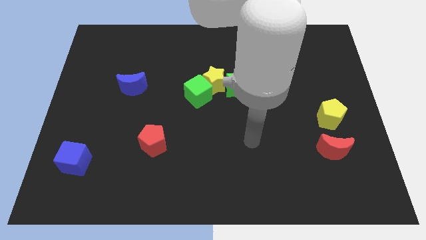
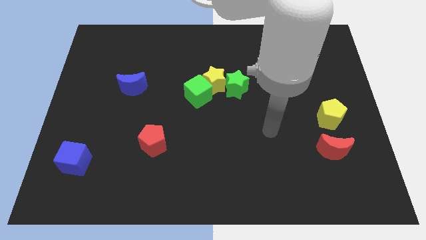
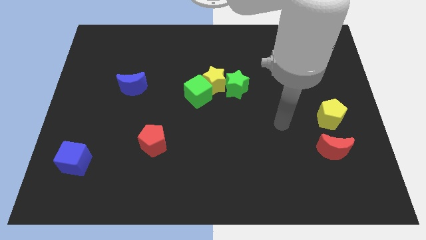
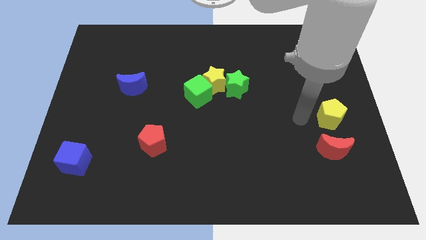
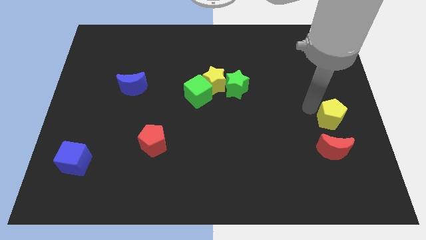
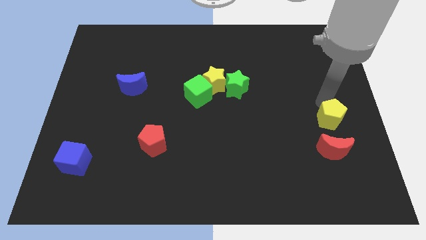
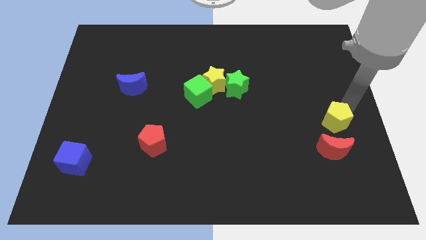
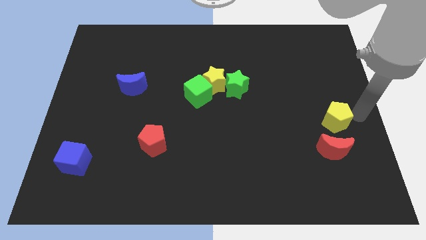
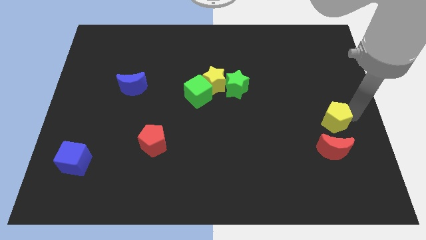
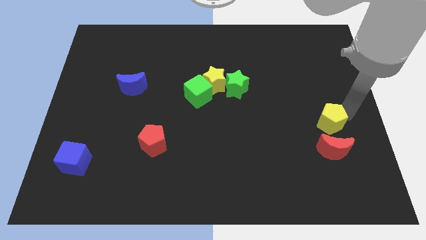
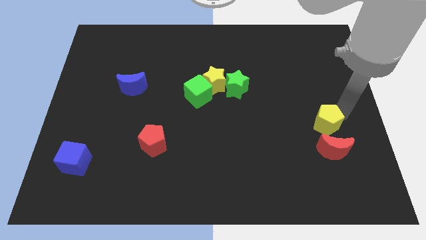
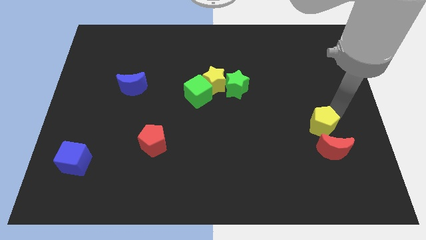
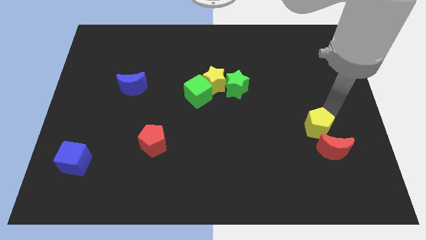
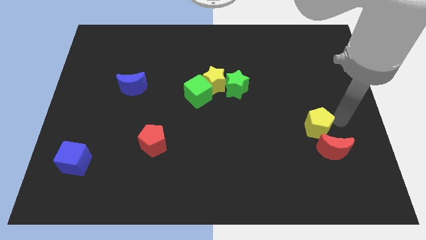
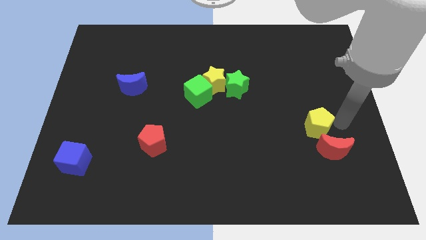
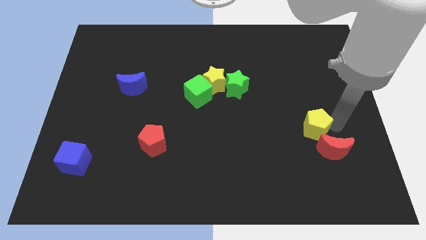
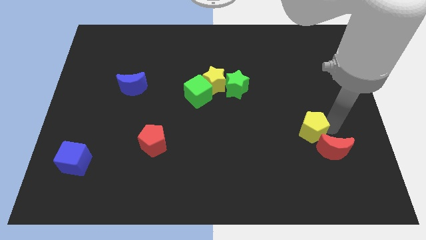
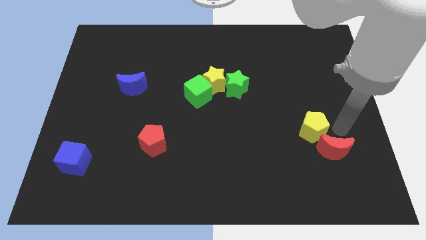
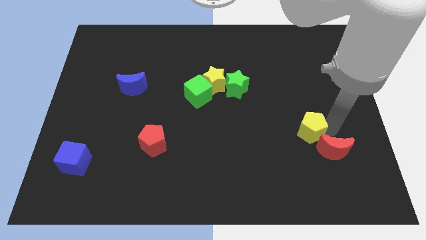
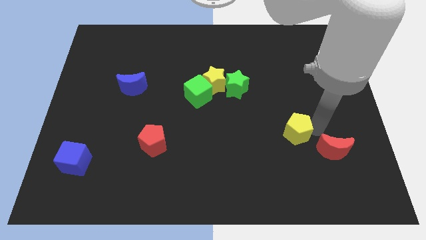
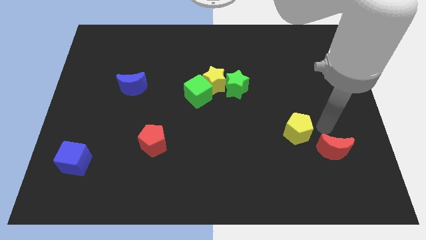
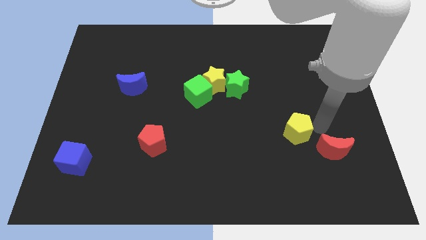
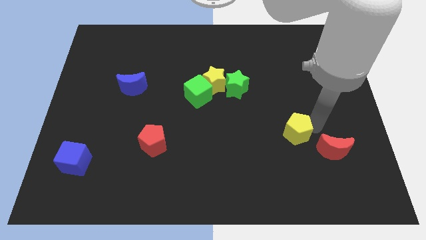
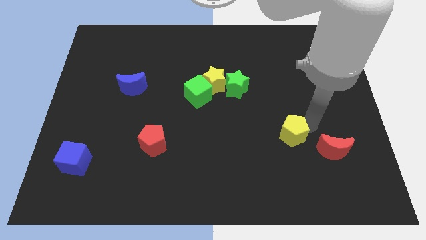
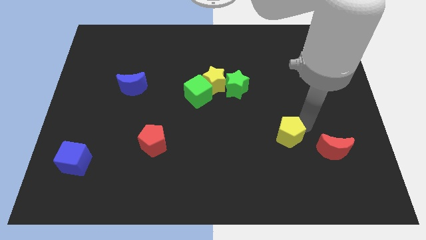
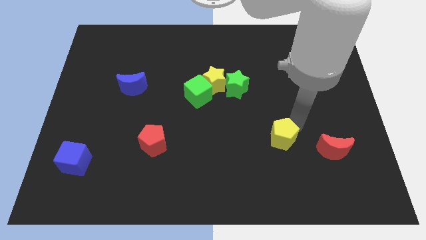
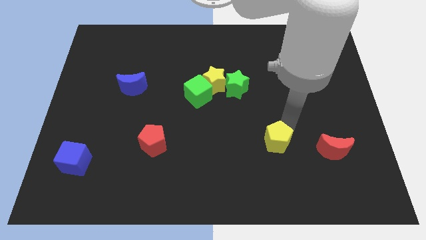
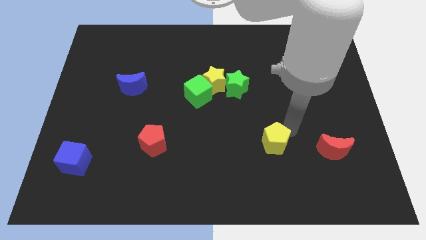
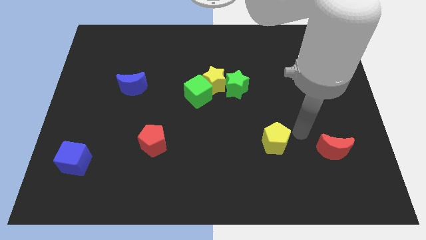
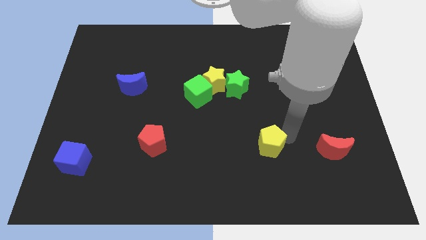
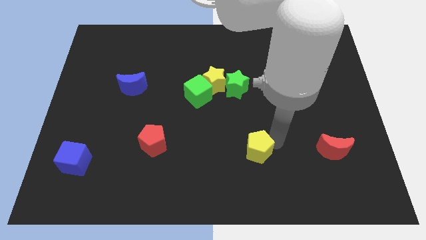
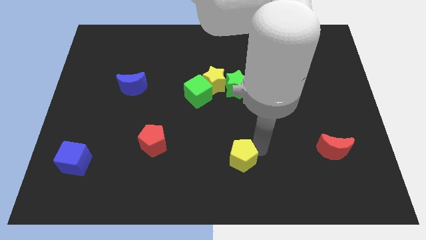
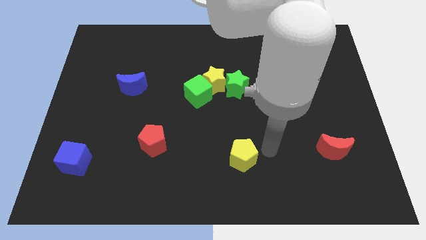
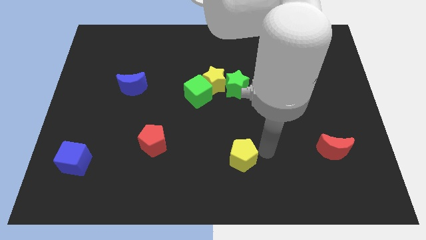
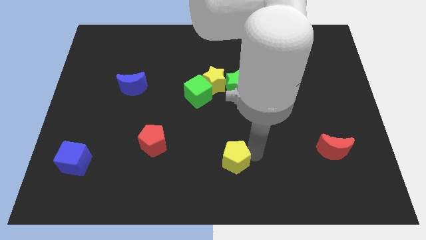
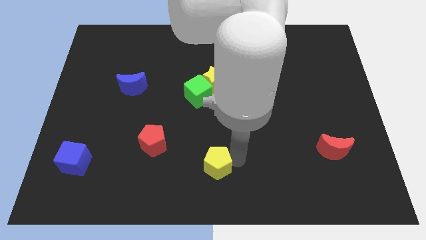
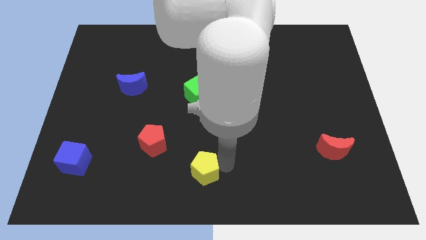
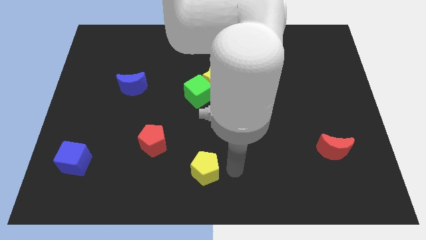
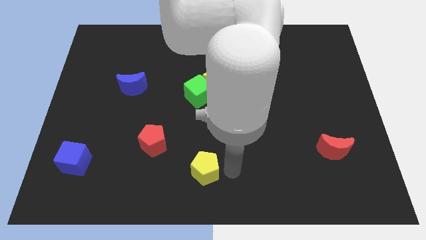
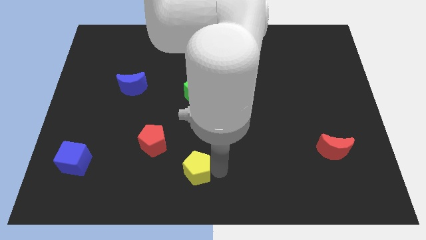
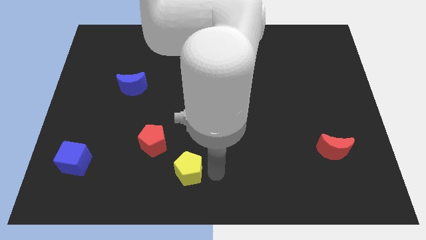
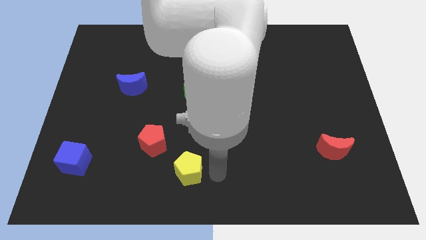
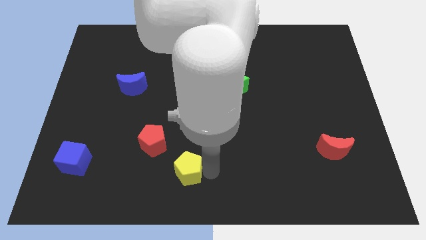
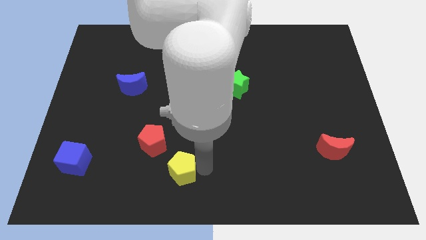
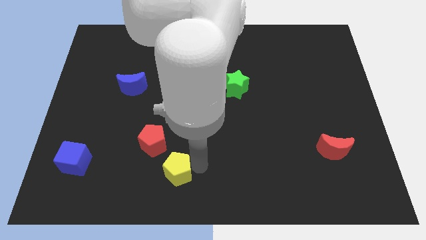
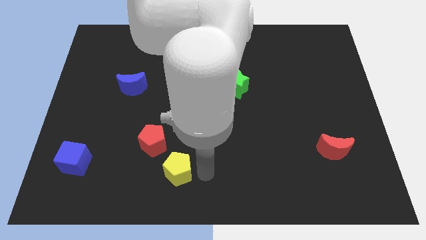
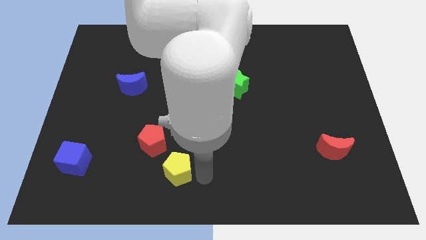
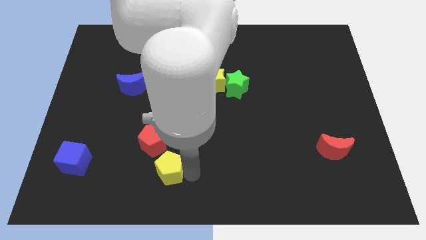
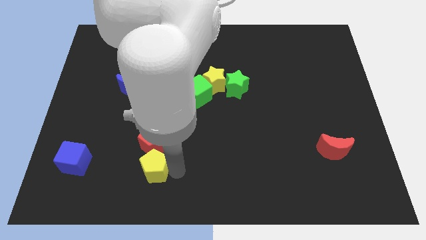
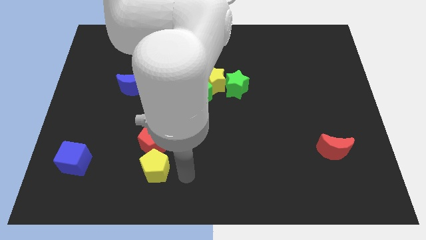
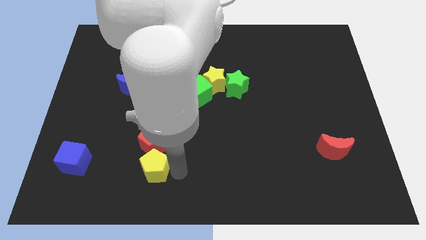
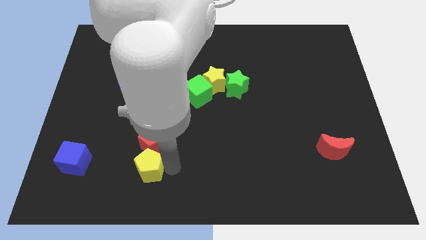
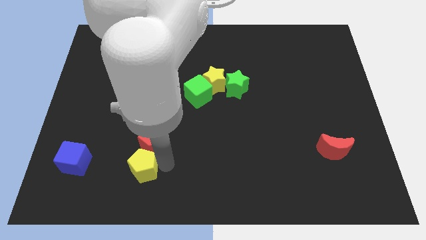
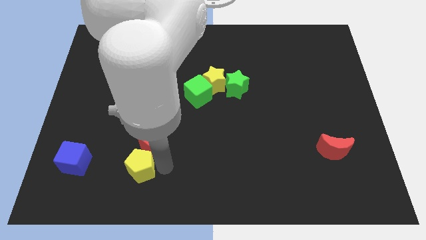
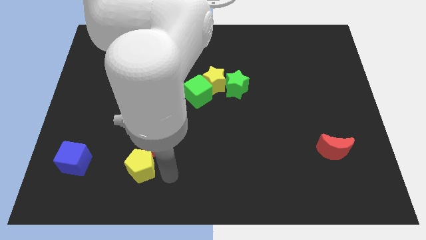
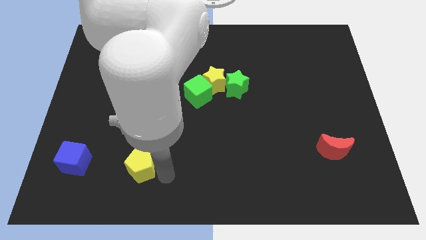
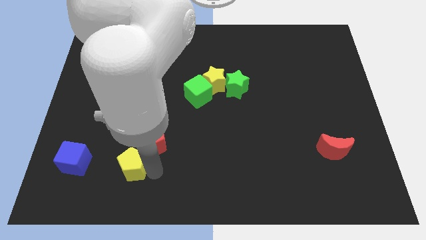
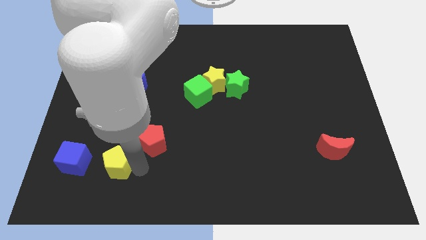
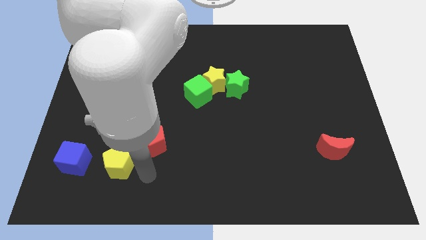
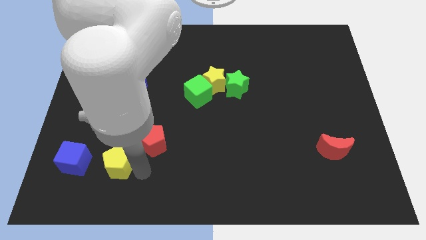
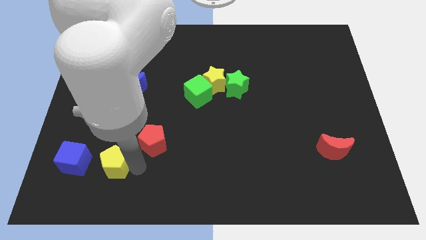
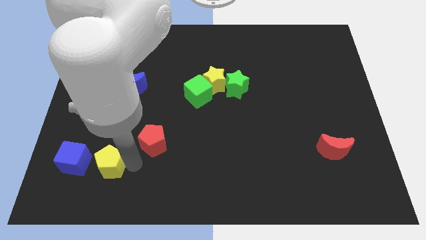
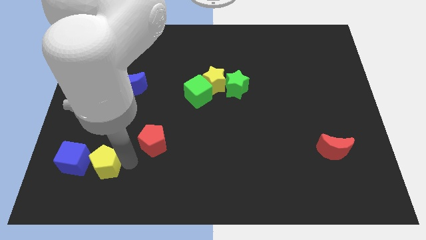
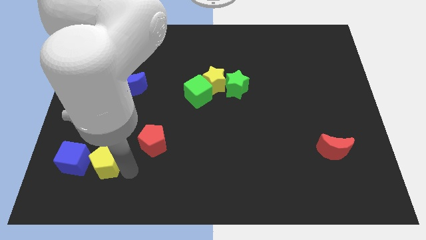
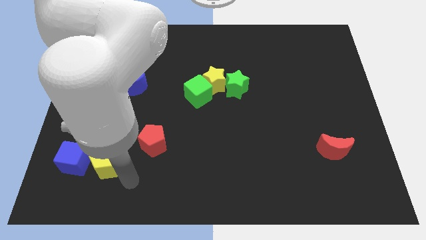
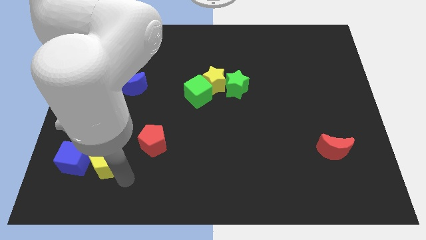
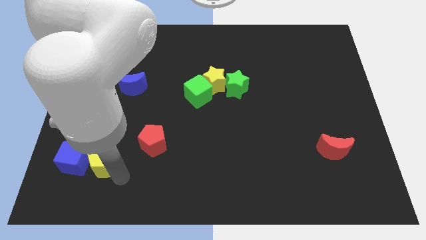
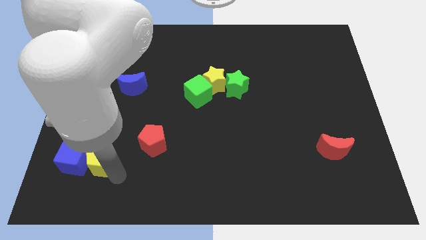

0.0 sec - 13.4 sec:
push the yellow pentagon next to the blue cube
